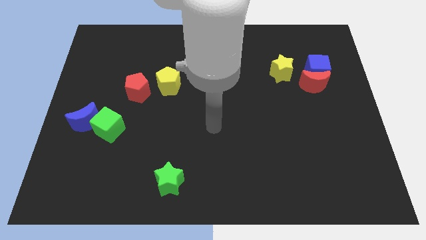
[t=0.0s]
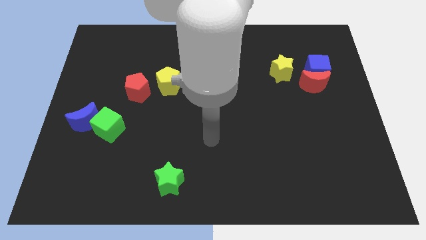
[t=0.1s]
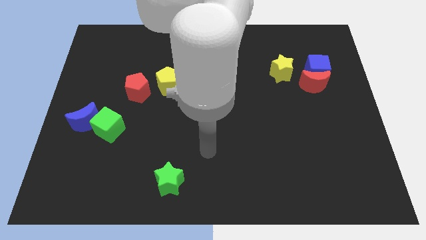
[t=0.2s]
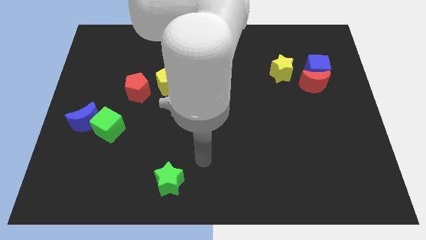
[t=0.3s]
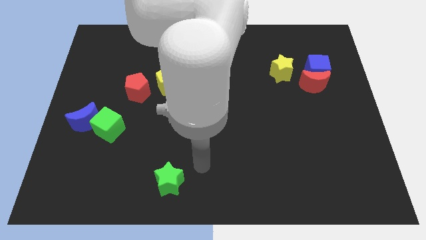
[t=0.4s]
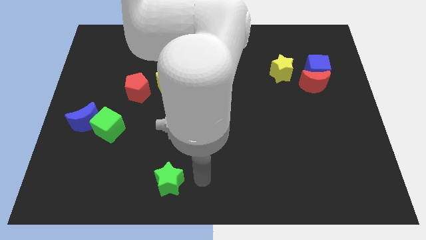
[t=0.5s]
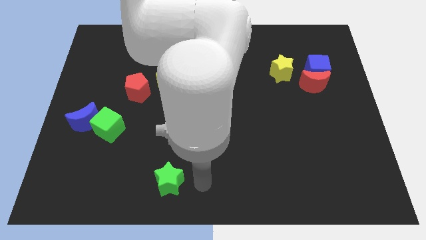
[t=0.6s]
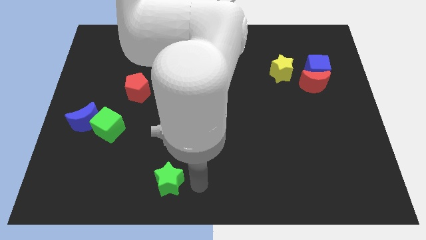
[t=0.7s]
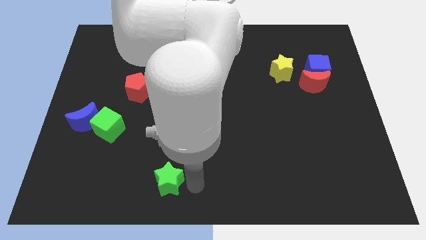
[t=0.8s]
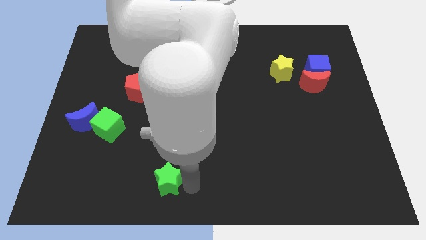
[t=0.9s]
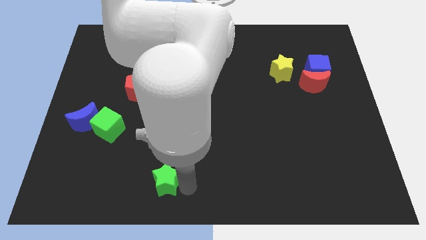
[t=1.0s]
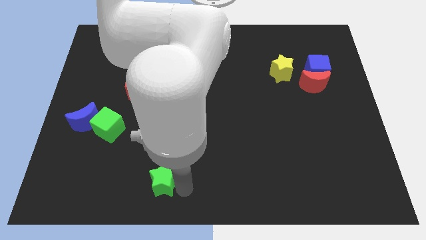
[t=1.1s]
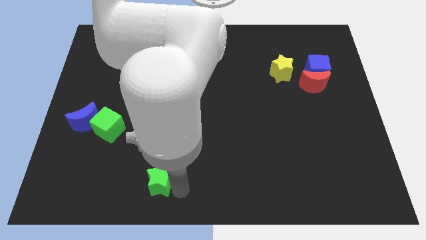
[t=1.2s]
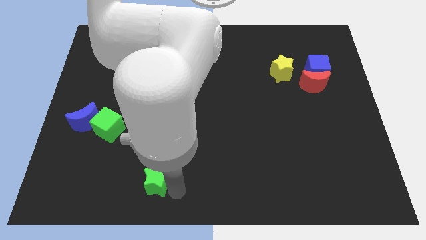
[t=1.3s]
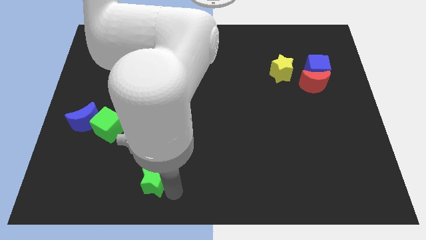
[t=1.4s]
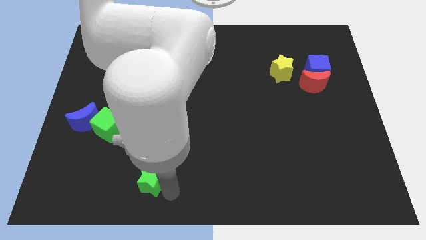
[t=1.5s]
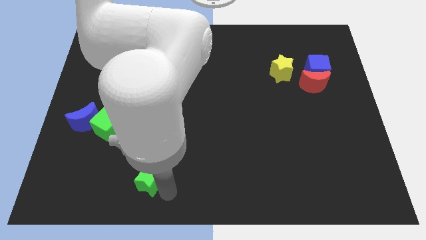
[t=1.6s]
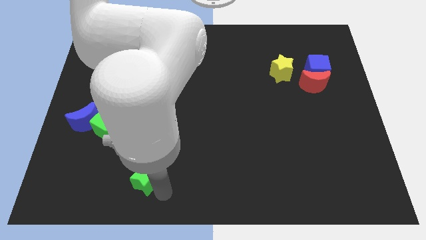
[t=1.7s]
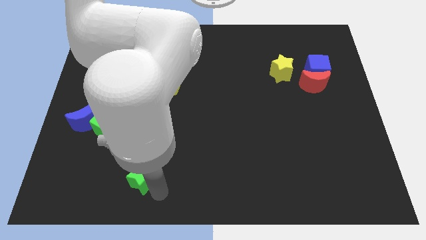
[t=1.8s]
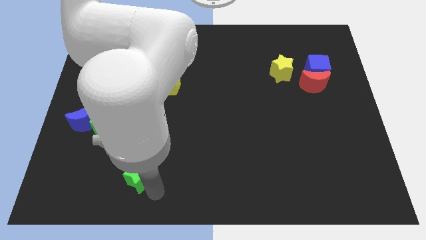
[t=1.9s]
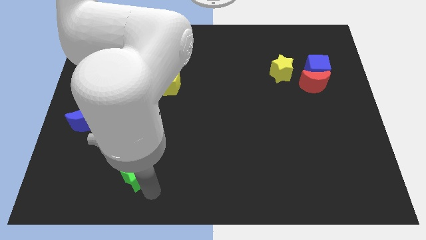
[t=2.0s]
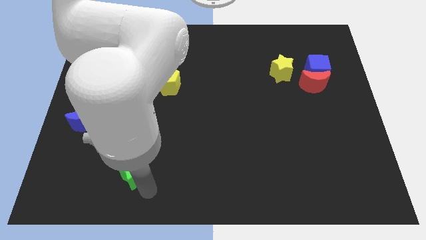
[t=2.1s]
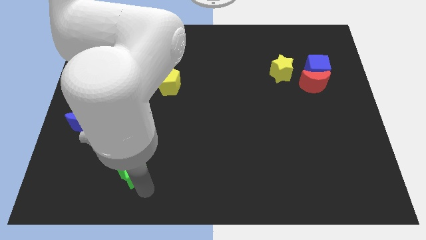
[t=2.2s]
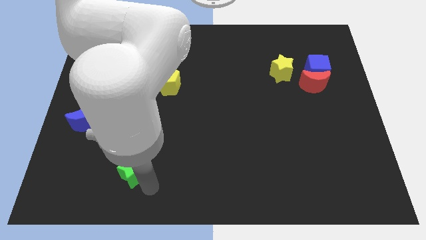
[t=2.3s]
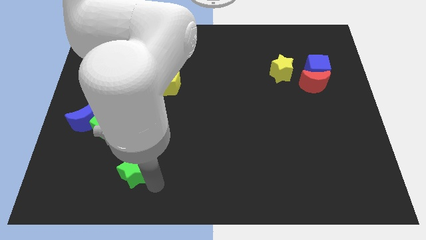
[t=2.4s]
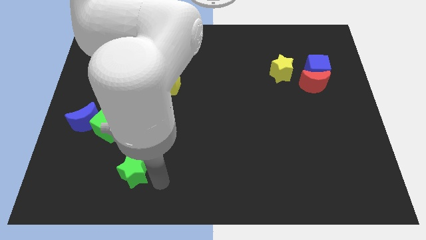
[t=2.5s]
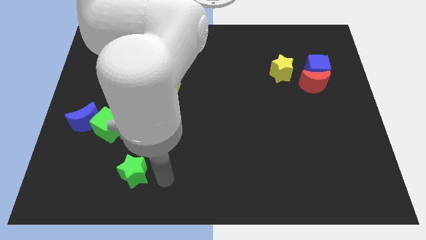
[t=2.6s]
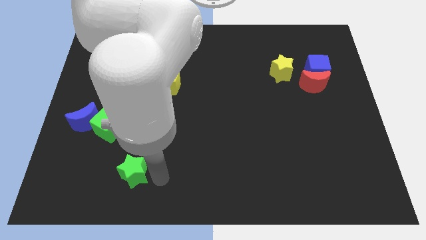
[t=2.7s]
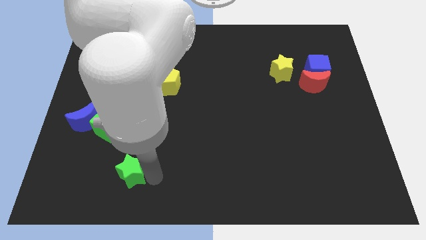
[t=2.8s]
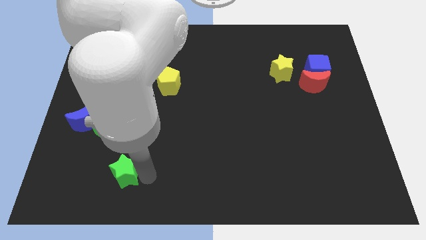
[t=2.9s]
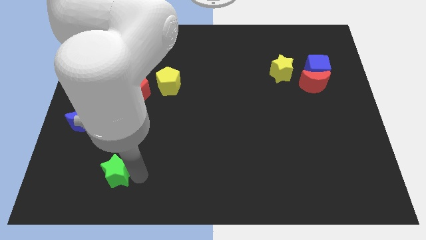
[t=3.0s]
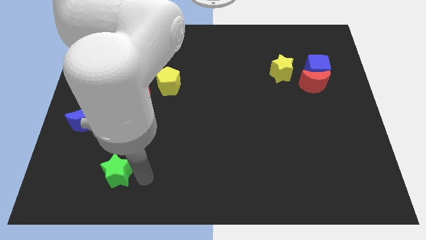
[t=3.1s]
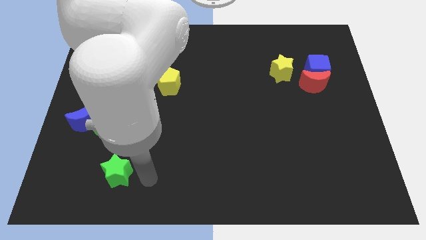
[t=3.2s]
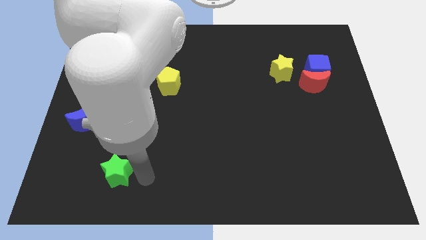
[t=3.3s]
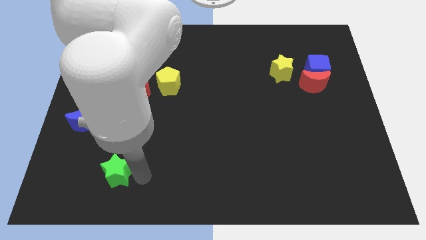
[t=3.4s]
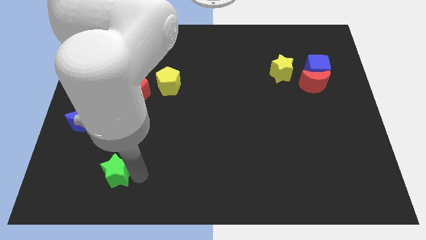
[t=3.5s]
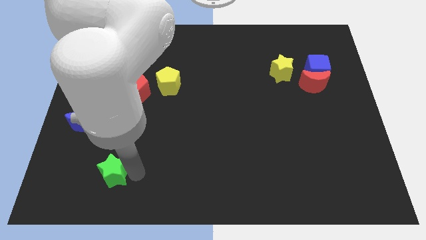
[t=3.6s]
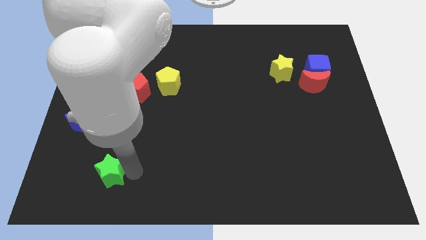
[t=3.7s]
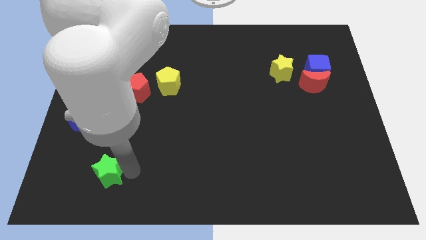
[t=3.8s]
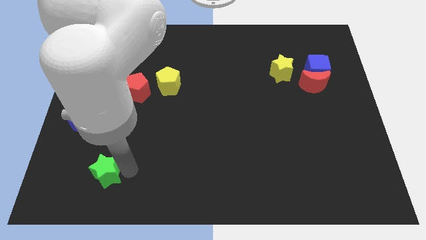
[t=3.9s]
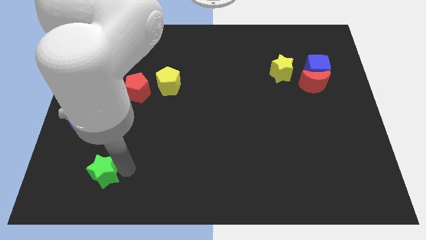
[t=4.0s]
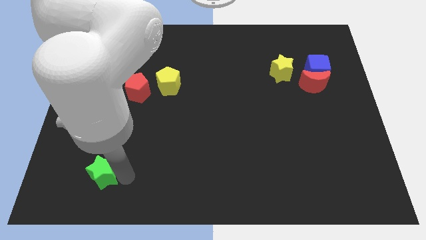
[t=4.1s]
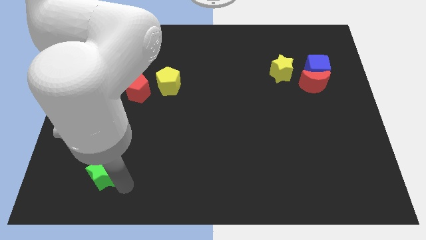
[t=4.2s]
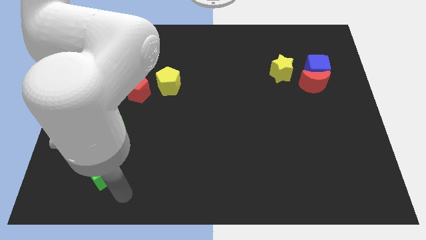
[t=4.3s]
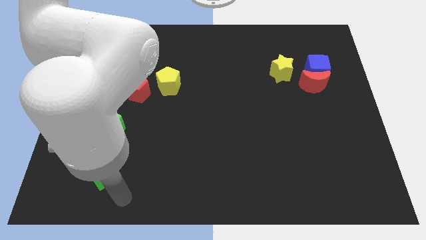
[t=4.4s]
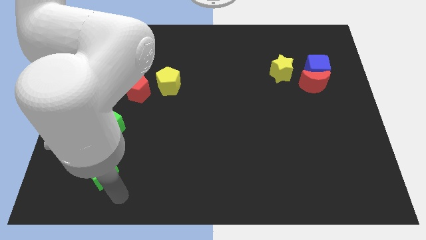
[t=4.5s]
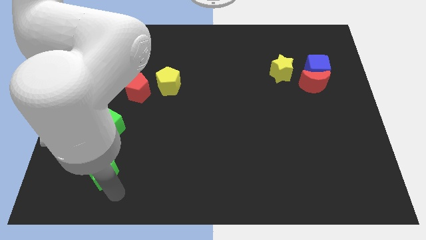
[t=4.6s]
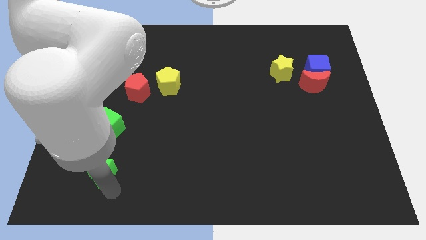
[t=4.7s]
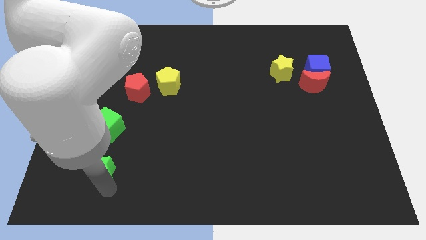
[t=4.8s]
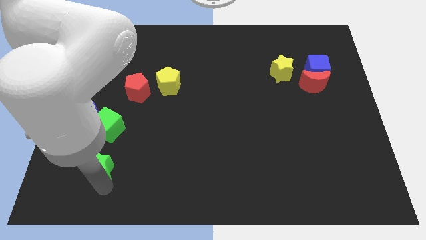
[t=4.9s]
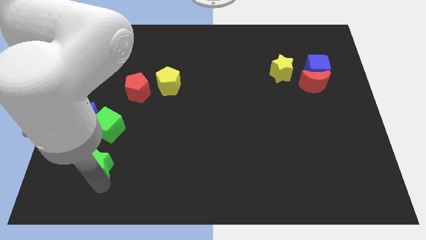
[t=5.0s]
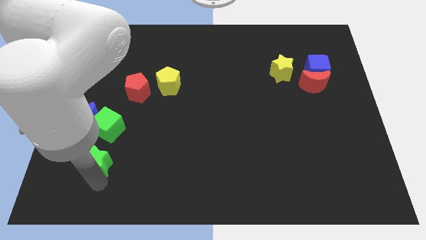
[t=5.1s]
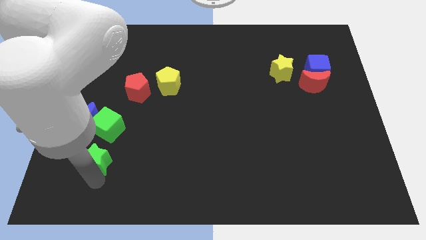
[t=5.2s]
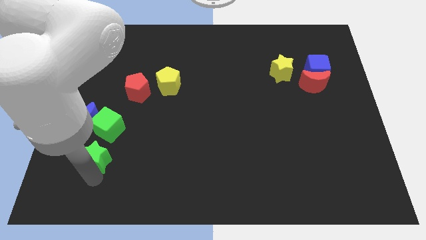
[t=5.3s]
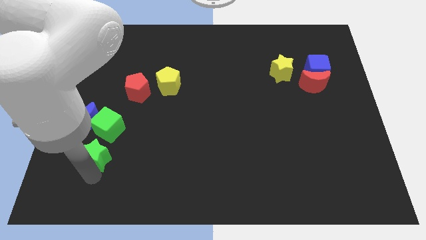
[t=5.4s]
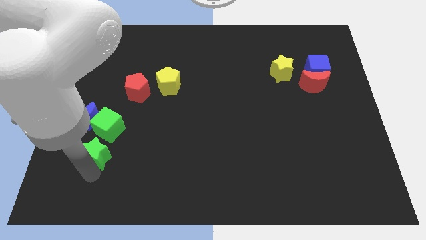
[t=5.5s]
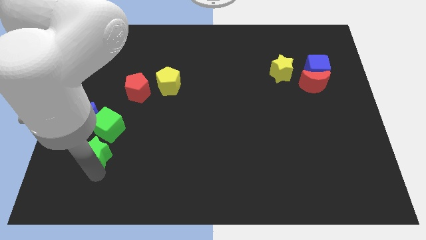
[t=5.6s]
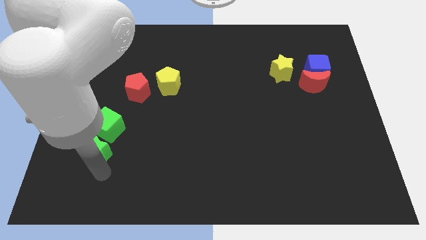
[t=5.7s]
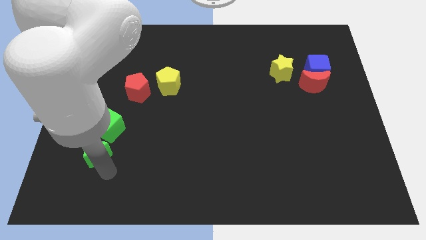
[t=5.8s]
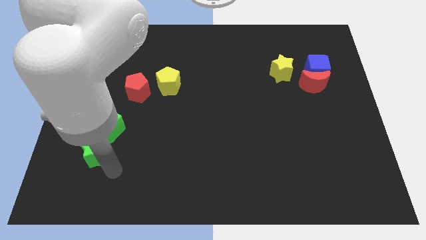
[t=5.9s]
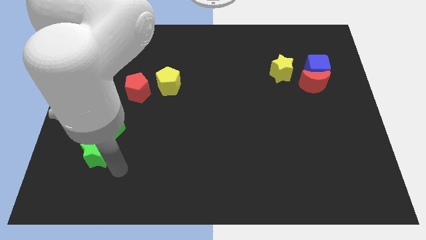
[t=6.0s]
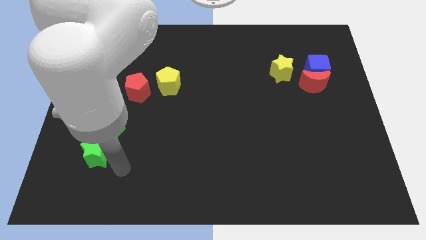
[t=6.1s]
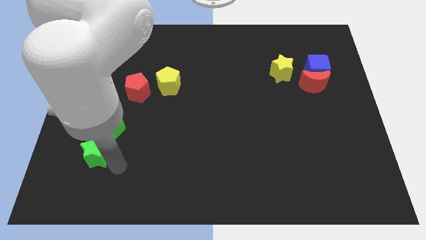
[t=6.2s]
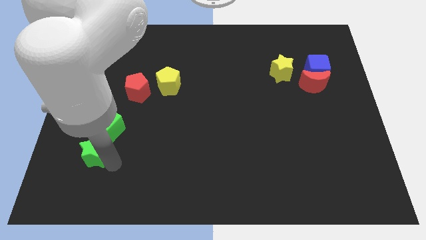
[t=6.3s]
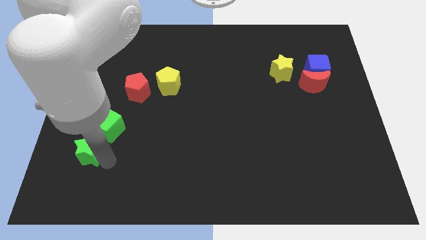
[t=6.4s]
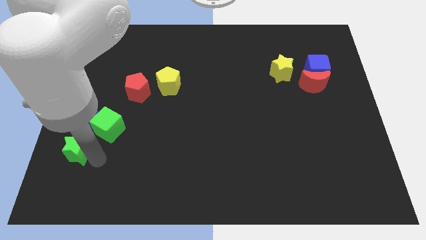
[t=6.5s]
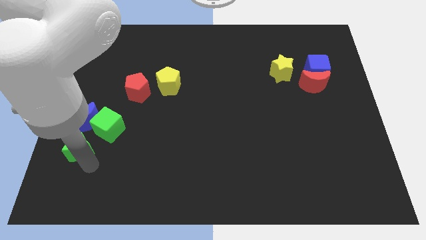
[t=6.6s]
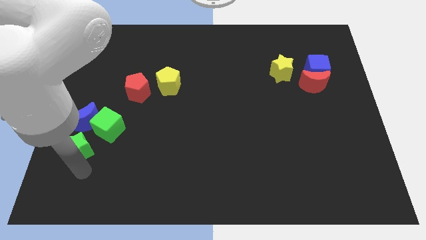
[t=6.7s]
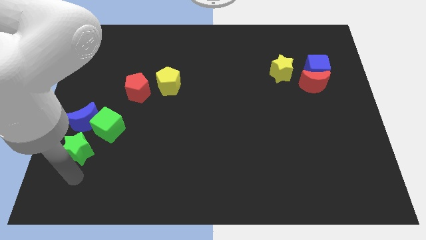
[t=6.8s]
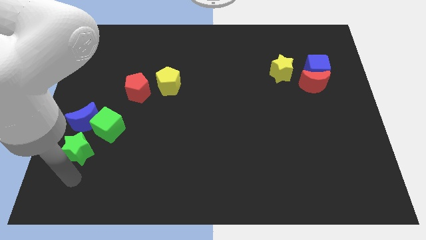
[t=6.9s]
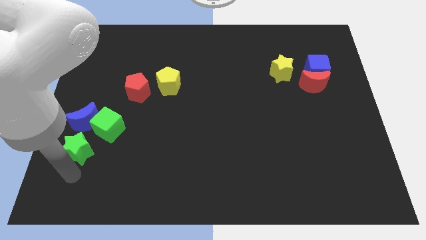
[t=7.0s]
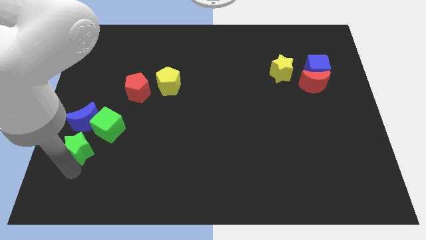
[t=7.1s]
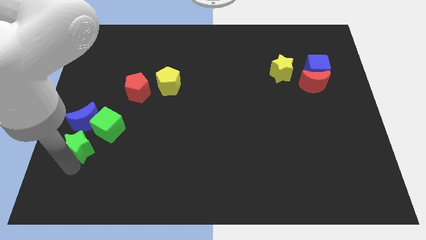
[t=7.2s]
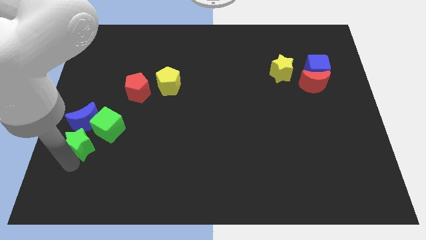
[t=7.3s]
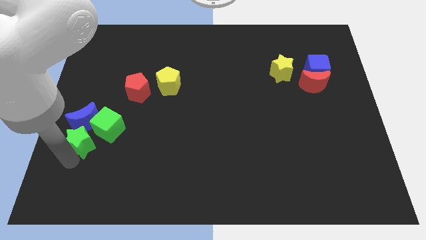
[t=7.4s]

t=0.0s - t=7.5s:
slide the green star close to the blue moon
